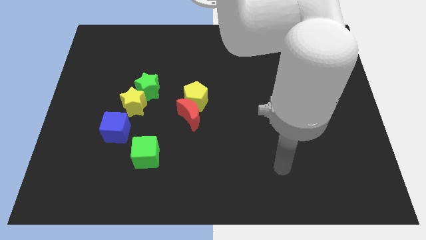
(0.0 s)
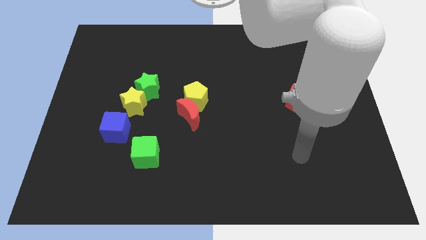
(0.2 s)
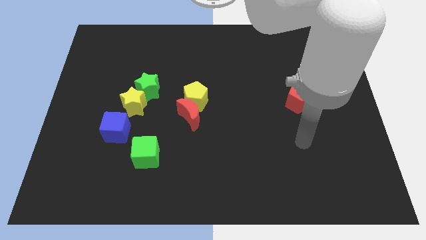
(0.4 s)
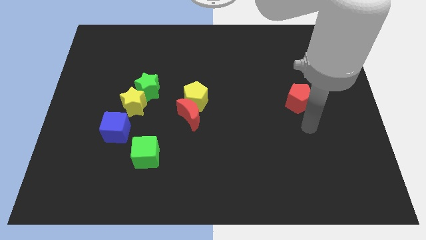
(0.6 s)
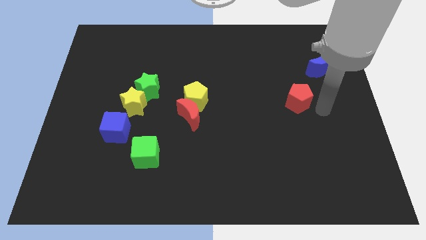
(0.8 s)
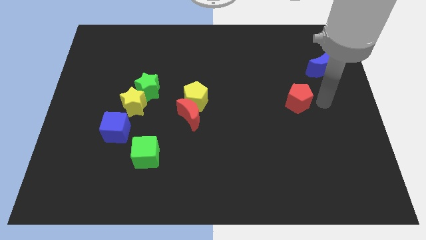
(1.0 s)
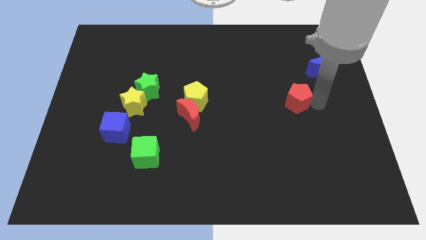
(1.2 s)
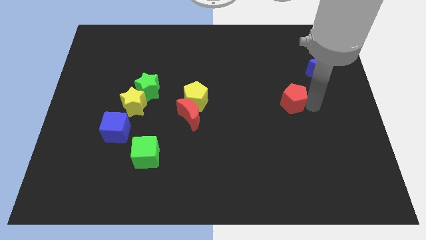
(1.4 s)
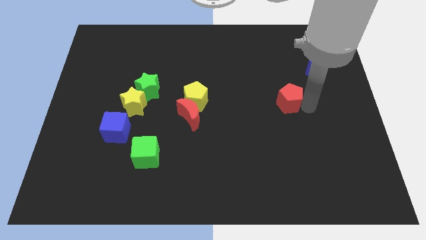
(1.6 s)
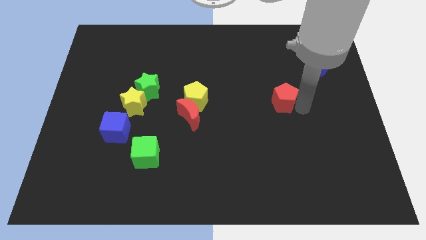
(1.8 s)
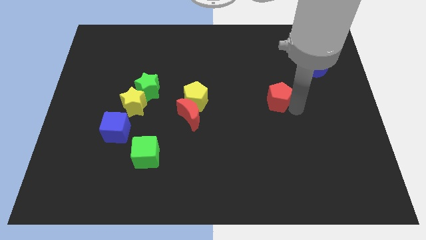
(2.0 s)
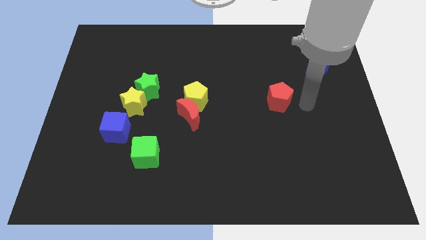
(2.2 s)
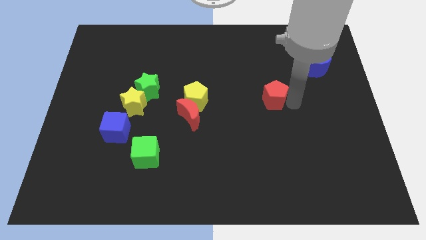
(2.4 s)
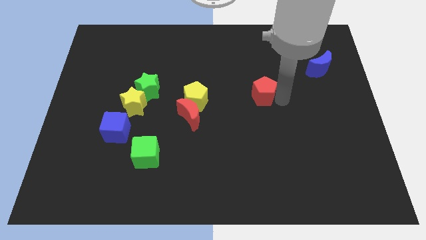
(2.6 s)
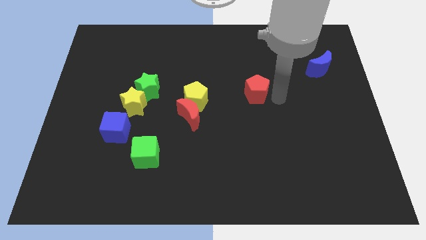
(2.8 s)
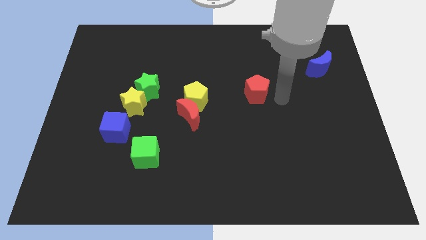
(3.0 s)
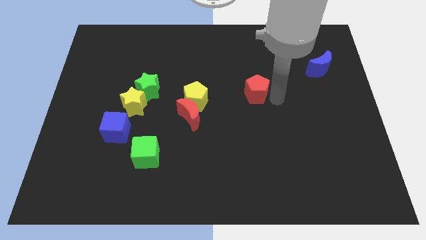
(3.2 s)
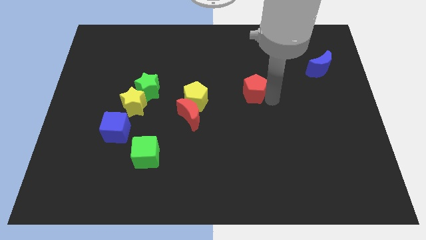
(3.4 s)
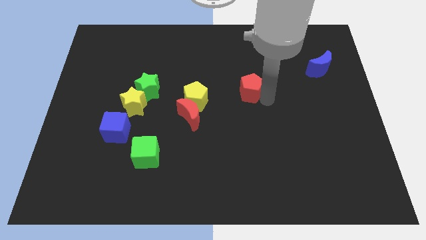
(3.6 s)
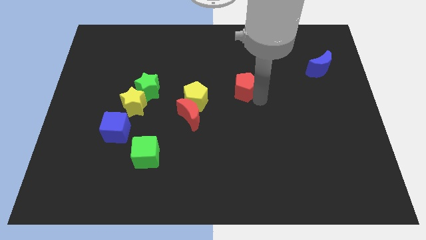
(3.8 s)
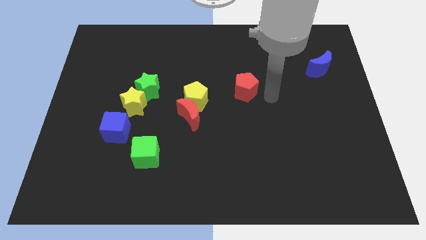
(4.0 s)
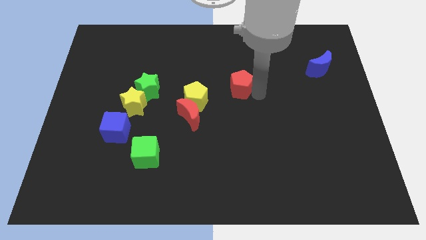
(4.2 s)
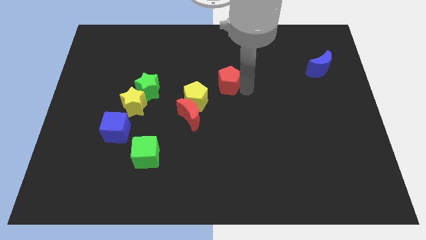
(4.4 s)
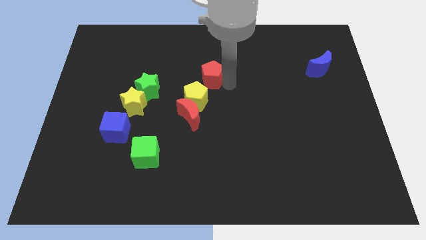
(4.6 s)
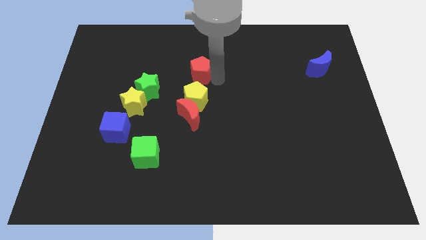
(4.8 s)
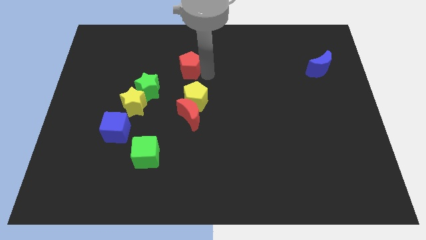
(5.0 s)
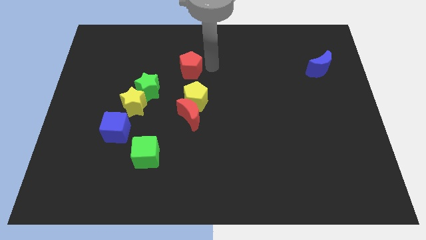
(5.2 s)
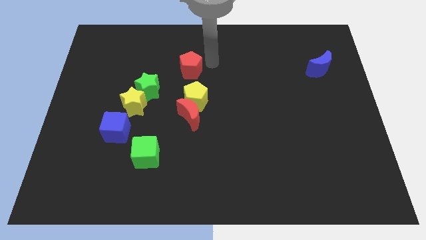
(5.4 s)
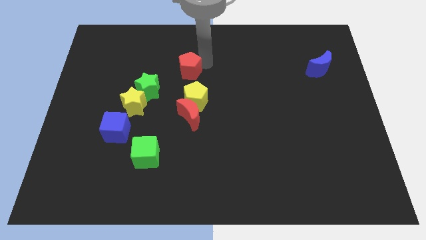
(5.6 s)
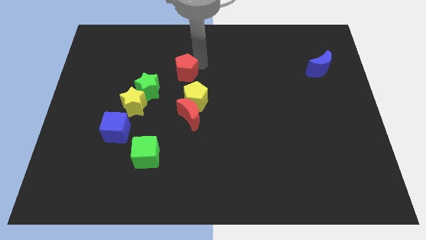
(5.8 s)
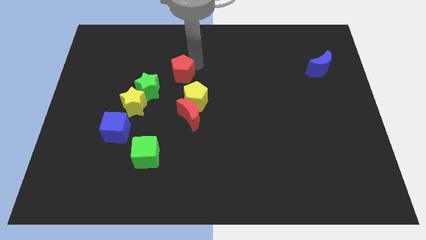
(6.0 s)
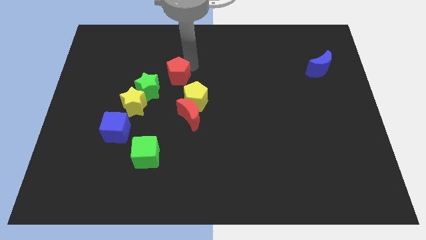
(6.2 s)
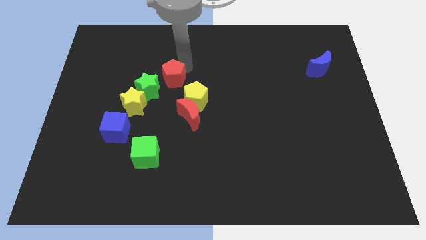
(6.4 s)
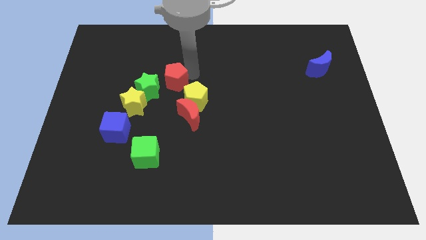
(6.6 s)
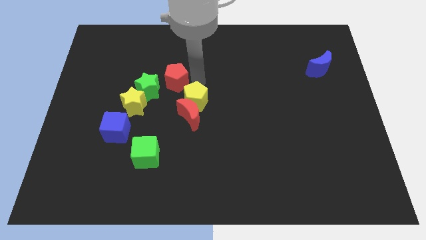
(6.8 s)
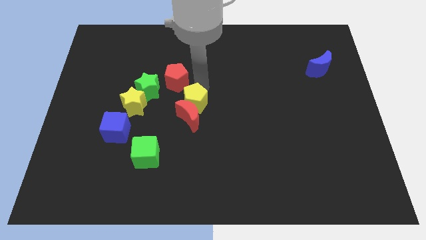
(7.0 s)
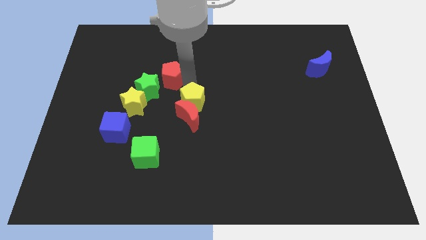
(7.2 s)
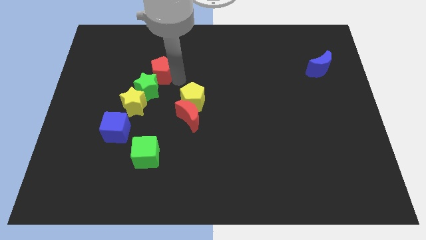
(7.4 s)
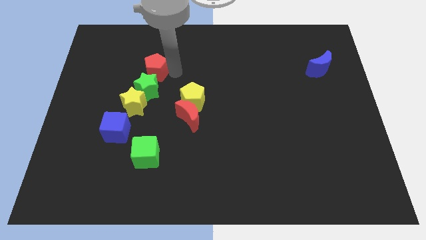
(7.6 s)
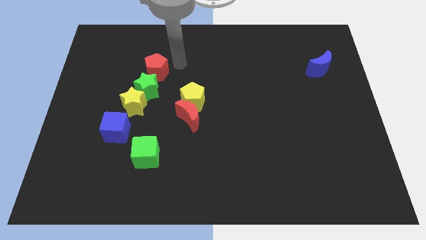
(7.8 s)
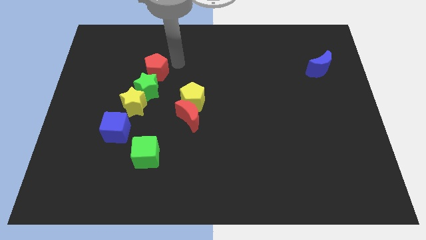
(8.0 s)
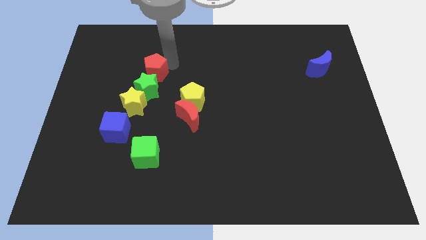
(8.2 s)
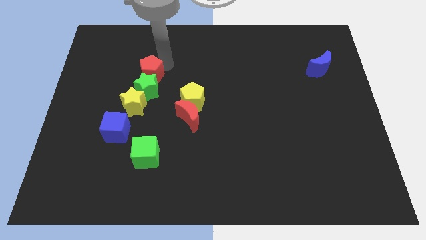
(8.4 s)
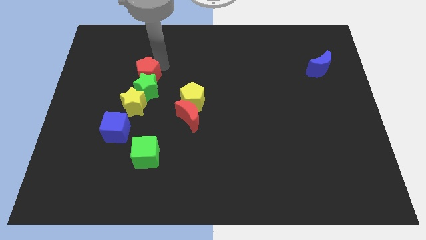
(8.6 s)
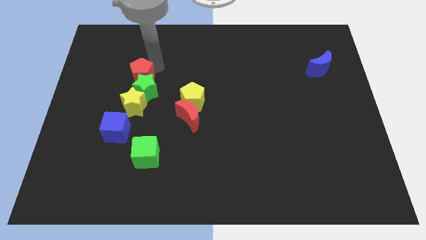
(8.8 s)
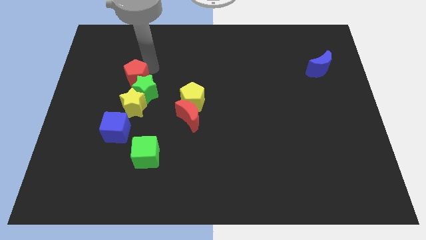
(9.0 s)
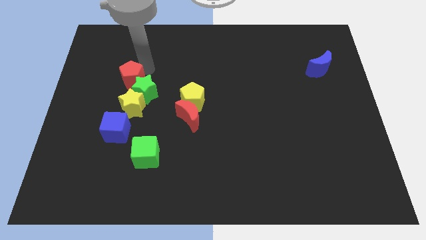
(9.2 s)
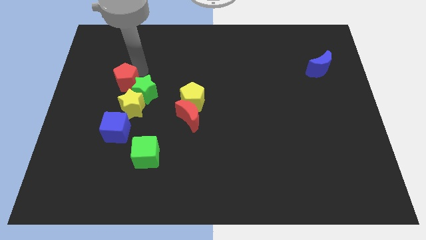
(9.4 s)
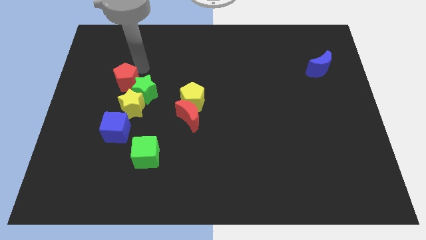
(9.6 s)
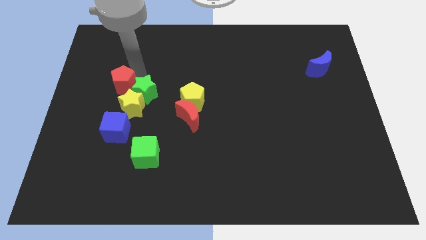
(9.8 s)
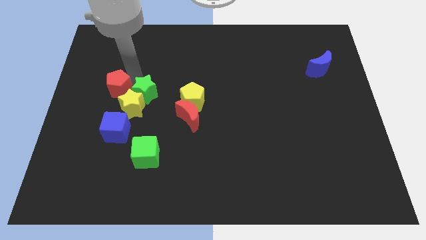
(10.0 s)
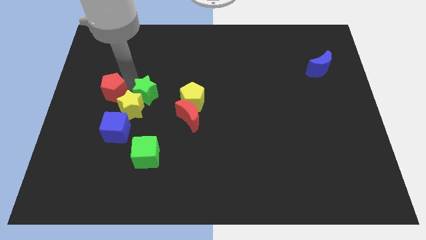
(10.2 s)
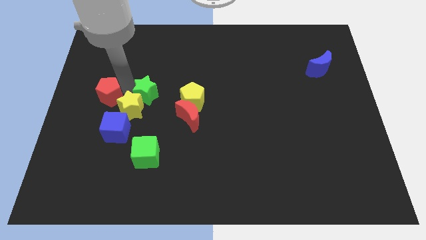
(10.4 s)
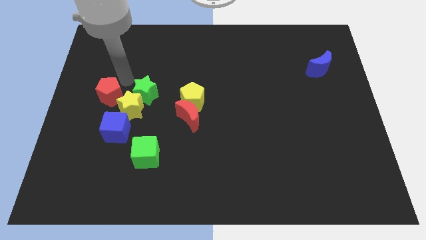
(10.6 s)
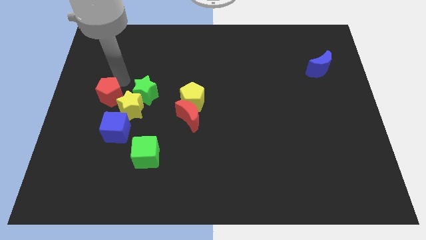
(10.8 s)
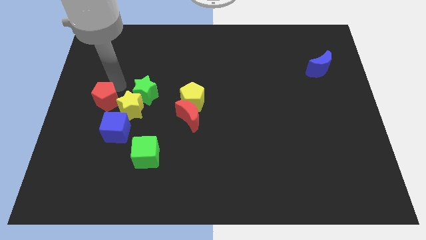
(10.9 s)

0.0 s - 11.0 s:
push the red pentagon to the top left side of the blue cube
